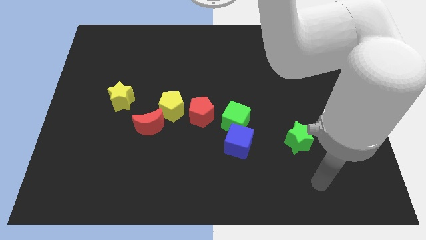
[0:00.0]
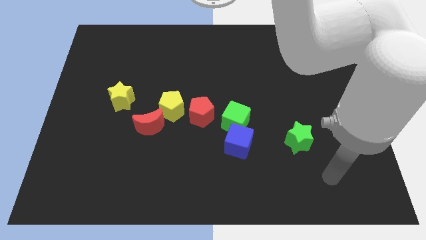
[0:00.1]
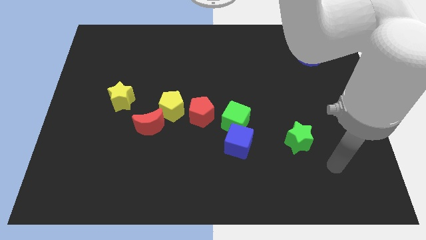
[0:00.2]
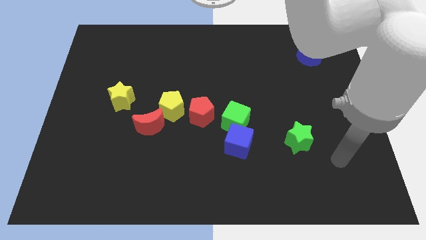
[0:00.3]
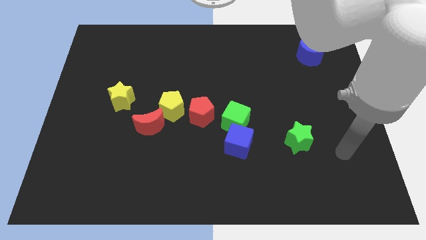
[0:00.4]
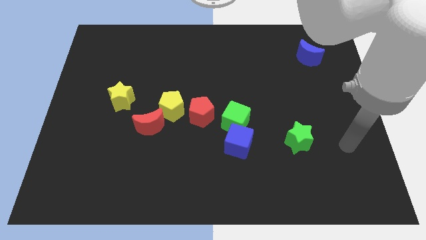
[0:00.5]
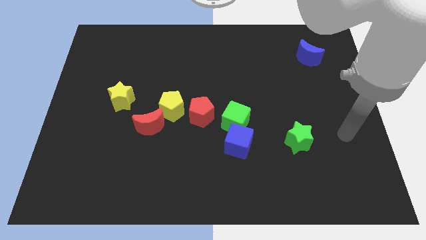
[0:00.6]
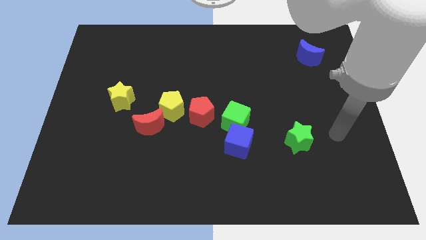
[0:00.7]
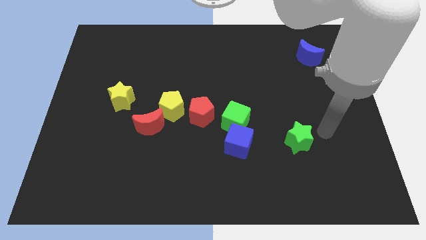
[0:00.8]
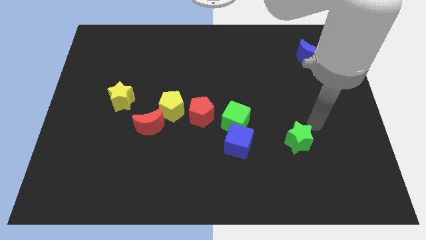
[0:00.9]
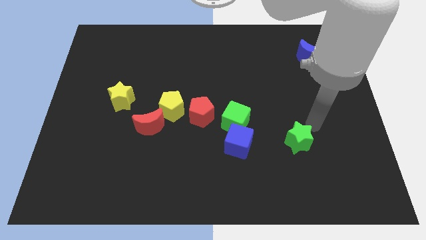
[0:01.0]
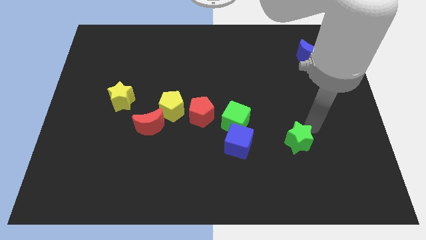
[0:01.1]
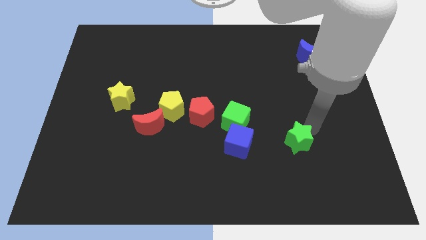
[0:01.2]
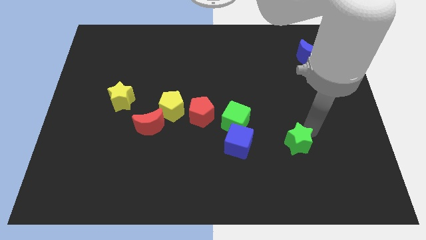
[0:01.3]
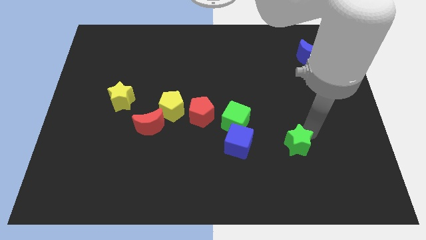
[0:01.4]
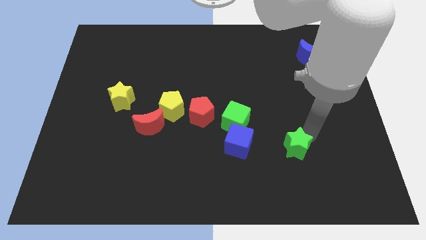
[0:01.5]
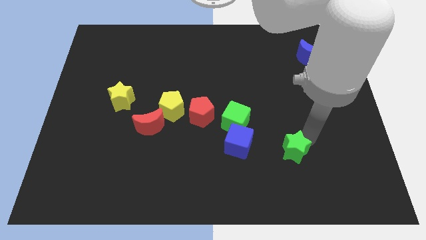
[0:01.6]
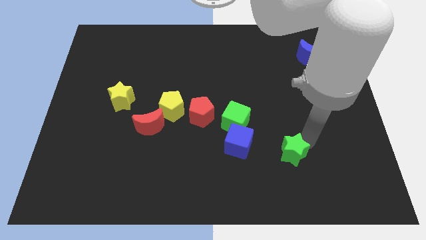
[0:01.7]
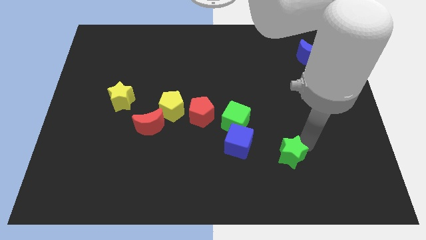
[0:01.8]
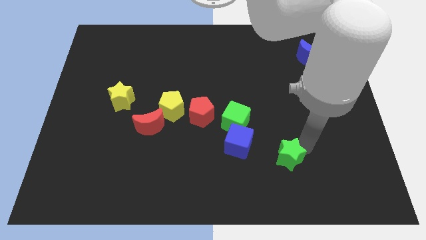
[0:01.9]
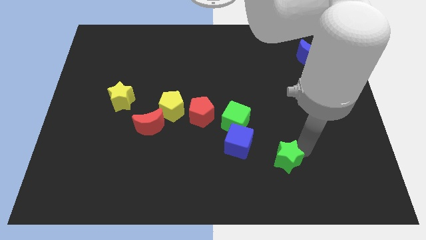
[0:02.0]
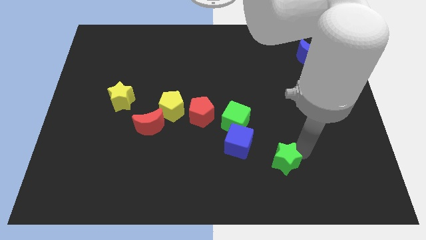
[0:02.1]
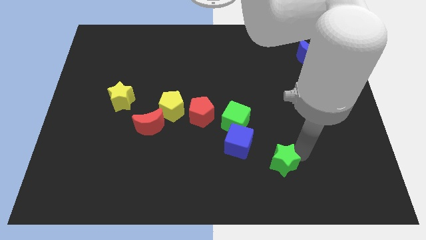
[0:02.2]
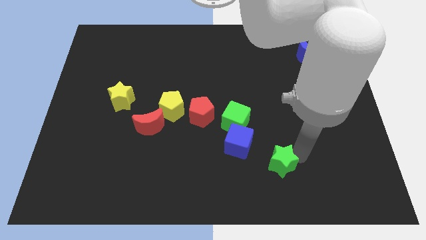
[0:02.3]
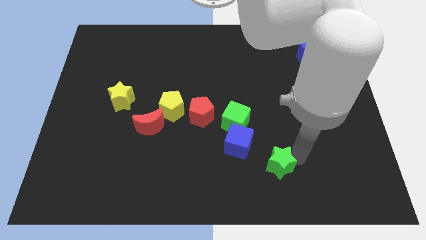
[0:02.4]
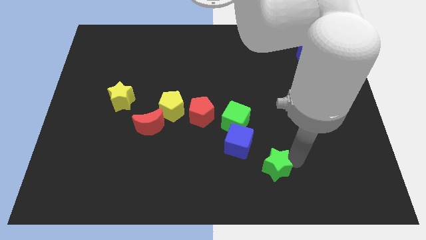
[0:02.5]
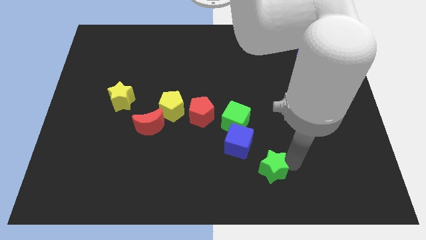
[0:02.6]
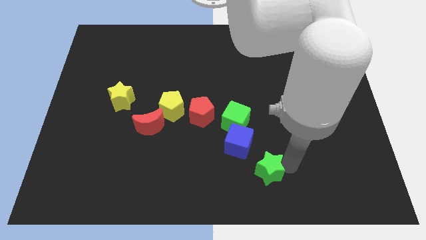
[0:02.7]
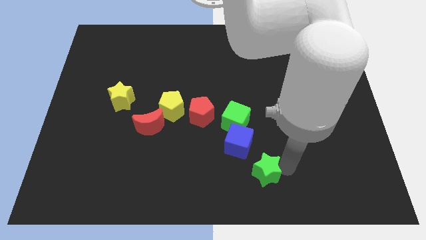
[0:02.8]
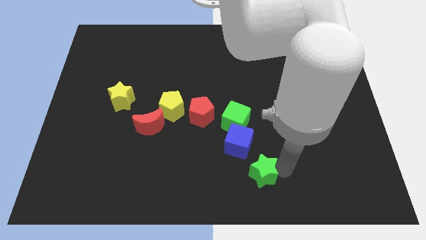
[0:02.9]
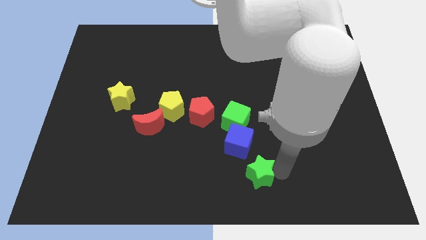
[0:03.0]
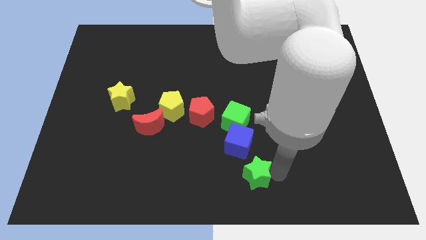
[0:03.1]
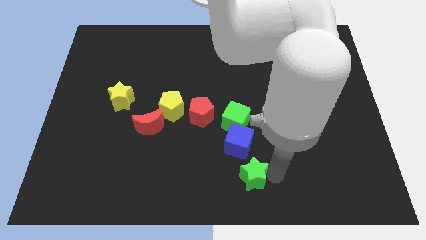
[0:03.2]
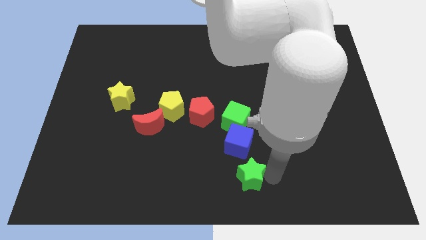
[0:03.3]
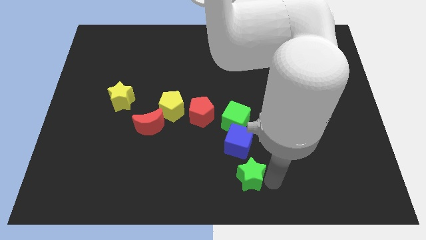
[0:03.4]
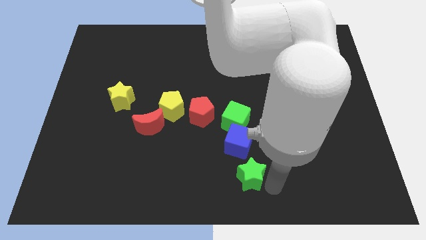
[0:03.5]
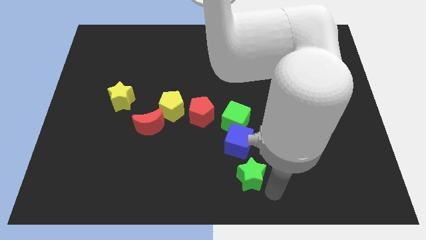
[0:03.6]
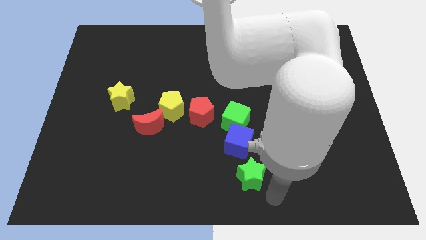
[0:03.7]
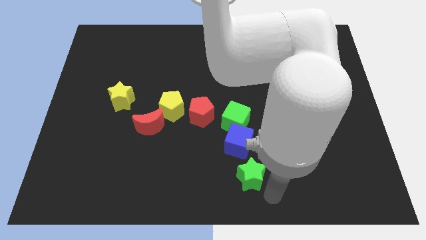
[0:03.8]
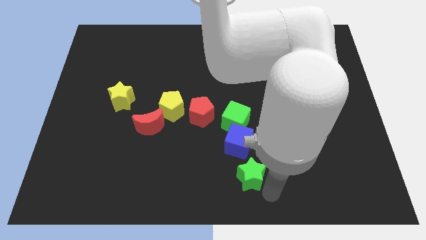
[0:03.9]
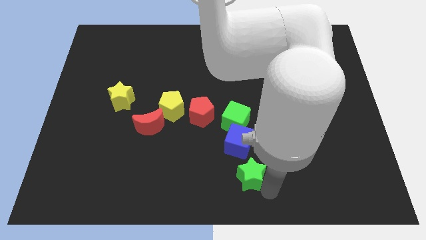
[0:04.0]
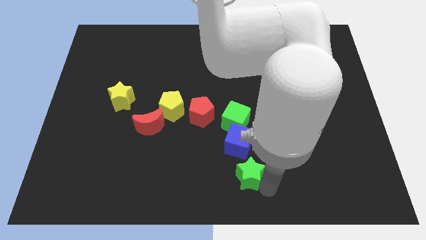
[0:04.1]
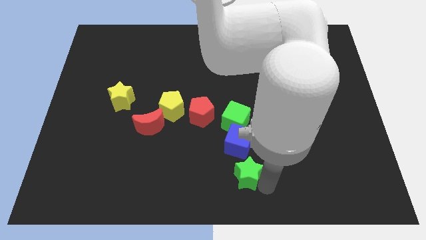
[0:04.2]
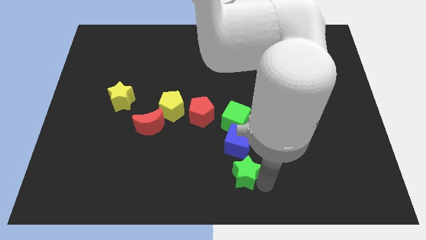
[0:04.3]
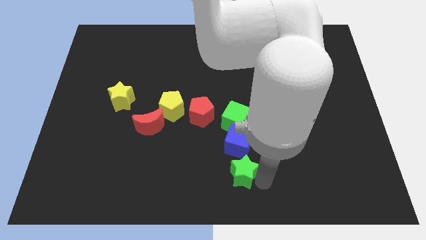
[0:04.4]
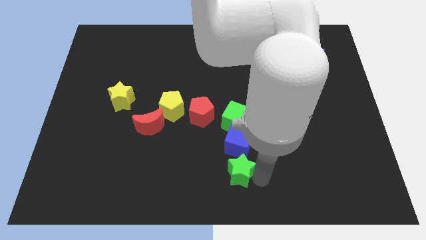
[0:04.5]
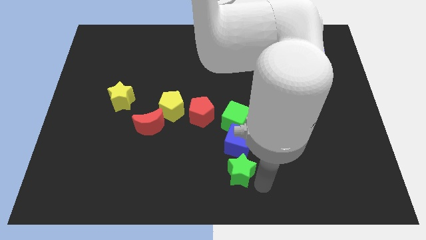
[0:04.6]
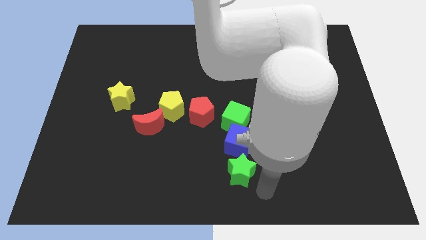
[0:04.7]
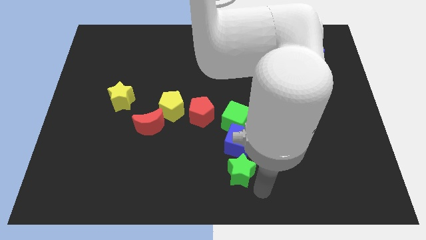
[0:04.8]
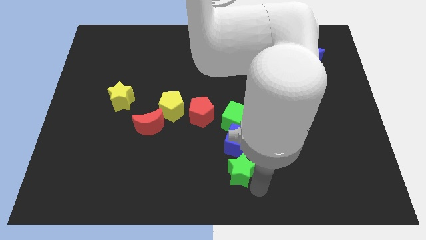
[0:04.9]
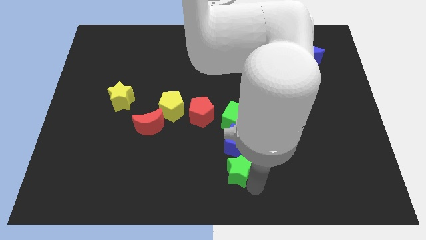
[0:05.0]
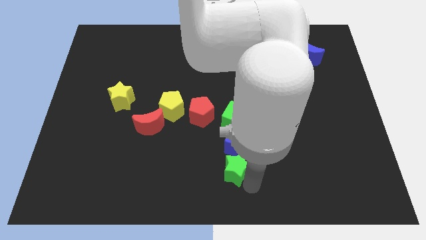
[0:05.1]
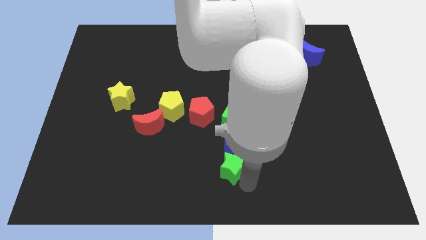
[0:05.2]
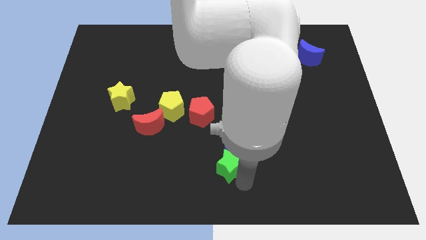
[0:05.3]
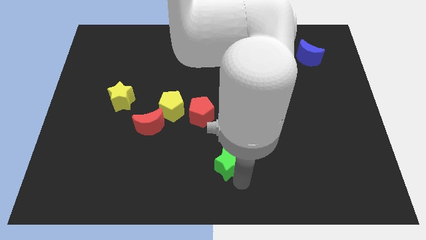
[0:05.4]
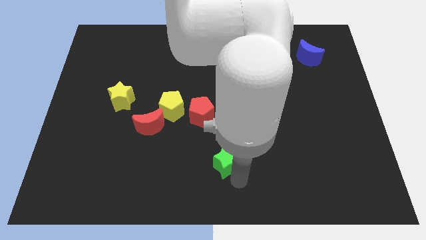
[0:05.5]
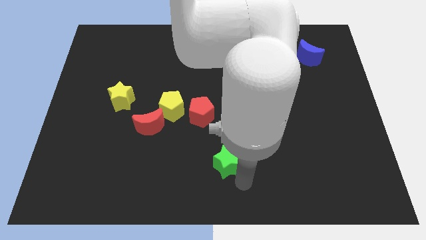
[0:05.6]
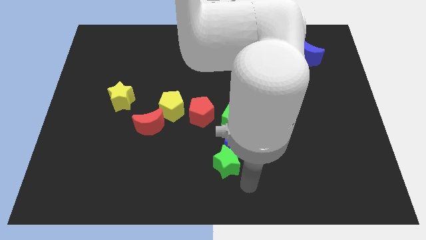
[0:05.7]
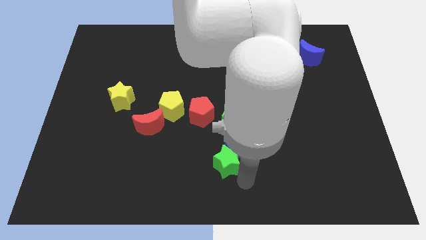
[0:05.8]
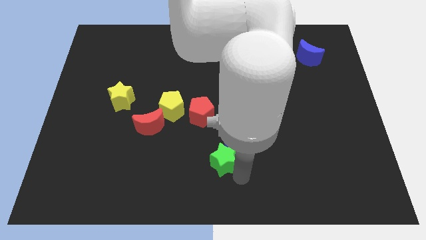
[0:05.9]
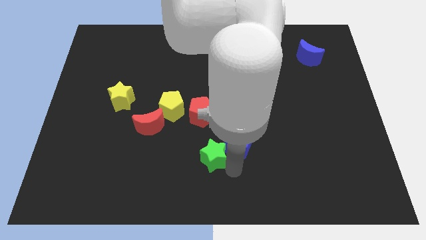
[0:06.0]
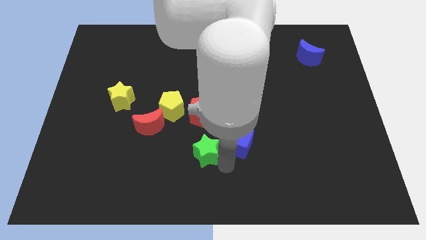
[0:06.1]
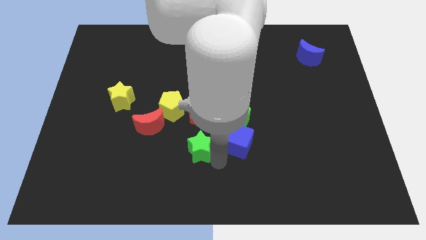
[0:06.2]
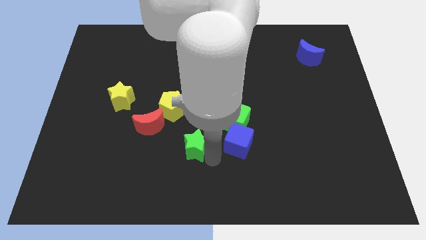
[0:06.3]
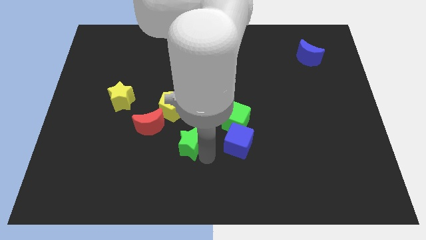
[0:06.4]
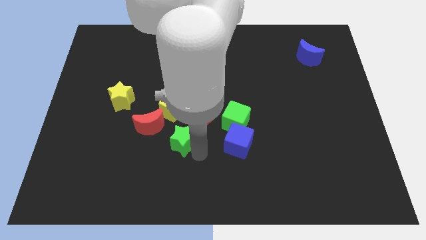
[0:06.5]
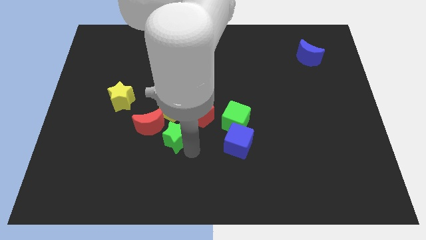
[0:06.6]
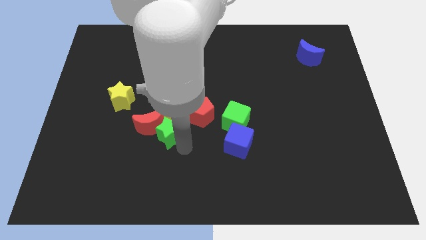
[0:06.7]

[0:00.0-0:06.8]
slide the green star to the left of the green cube
